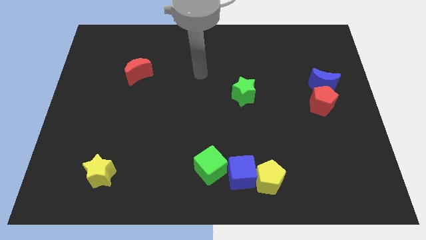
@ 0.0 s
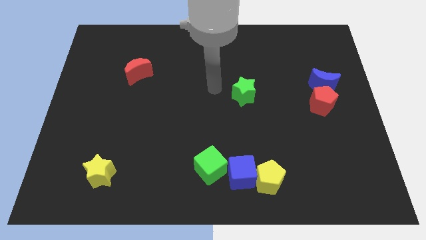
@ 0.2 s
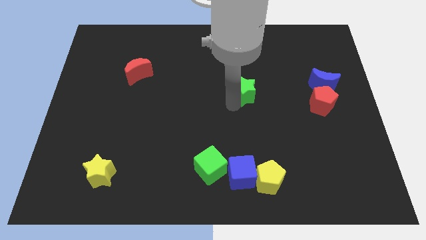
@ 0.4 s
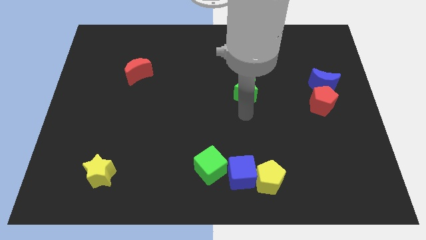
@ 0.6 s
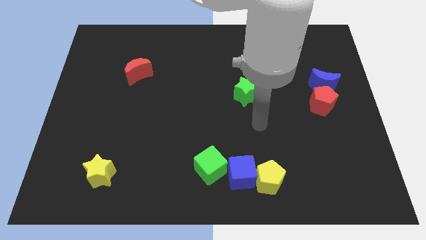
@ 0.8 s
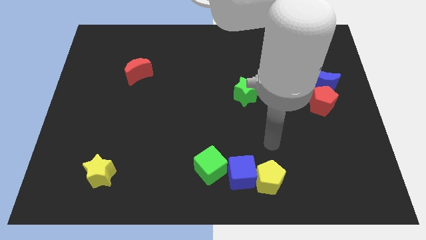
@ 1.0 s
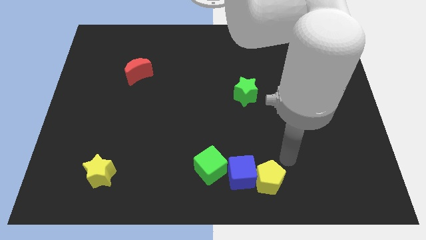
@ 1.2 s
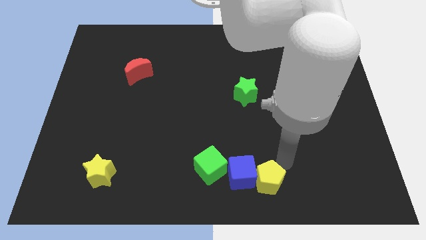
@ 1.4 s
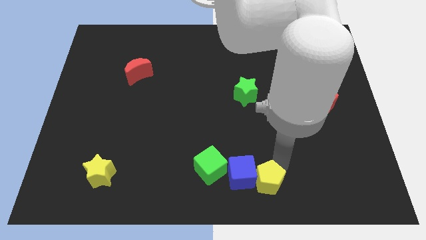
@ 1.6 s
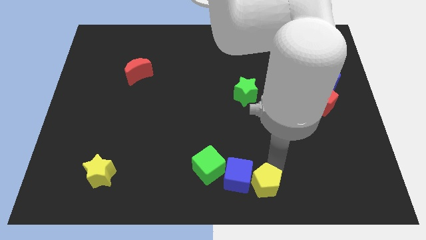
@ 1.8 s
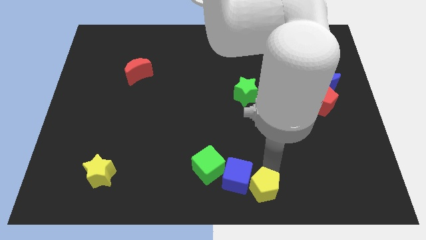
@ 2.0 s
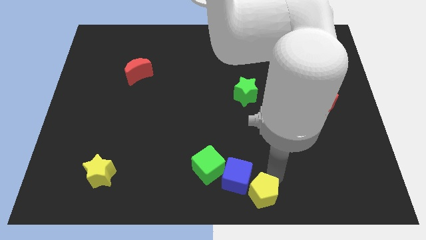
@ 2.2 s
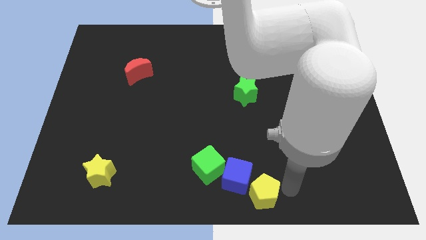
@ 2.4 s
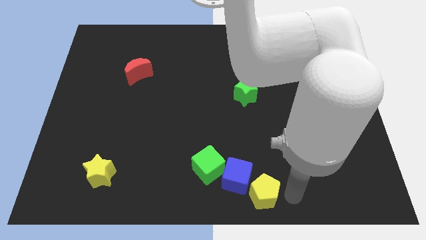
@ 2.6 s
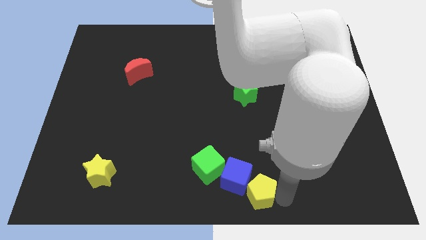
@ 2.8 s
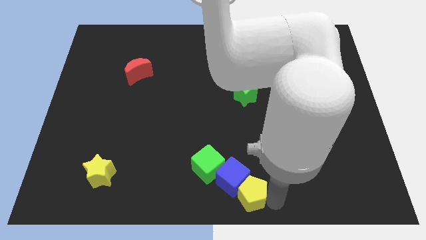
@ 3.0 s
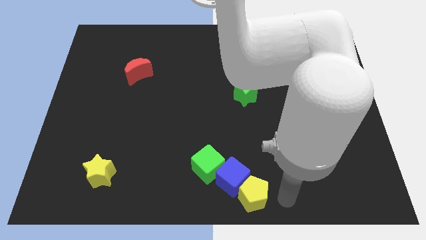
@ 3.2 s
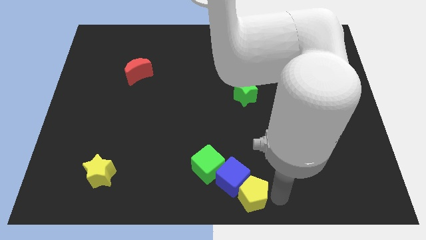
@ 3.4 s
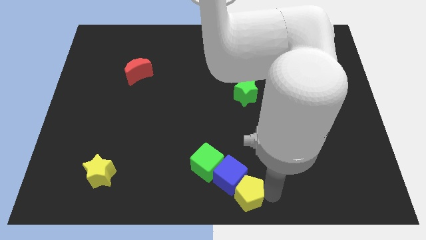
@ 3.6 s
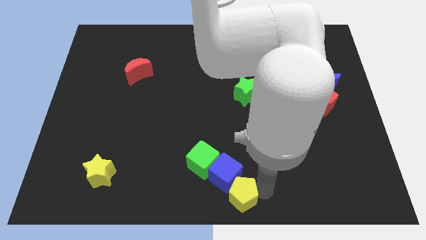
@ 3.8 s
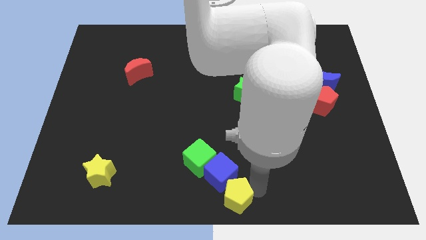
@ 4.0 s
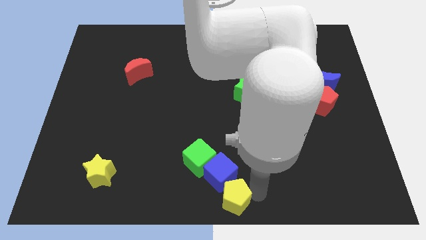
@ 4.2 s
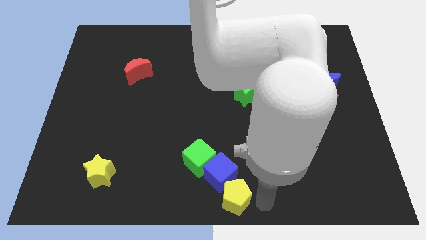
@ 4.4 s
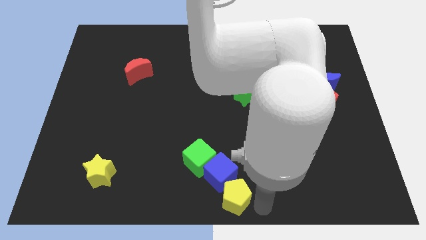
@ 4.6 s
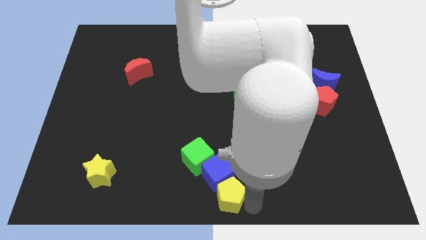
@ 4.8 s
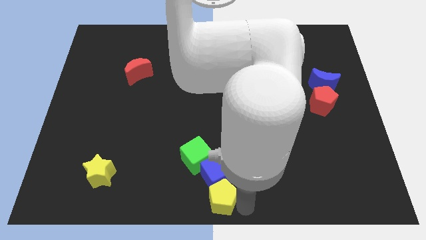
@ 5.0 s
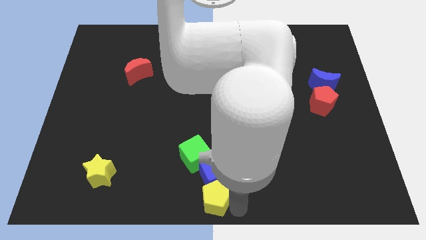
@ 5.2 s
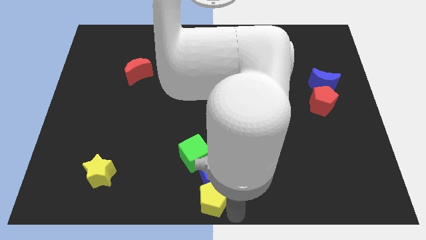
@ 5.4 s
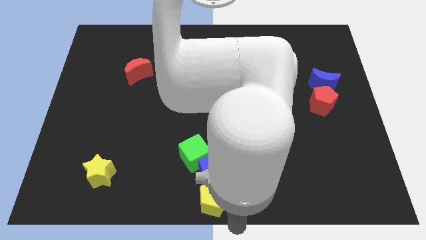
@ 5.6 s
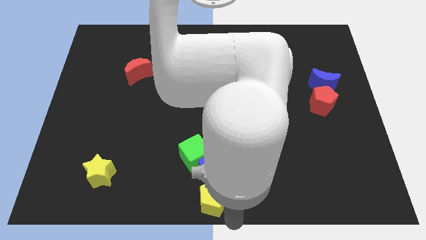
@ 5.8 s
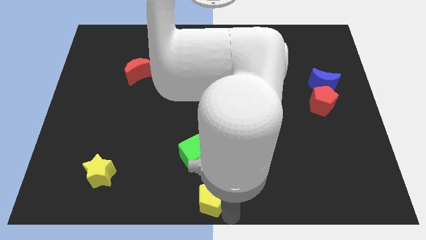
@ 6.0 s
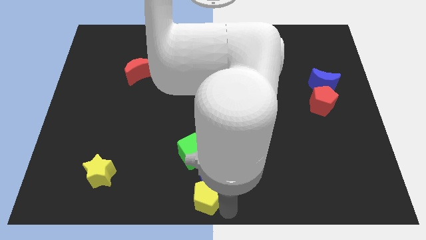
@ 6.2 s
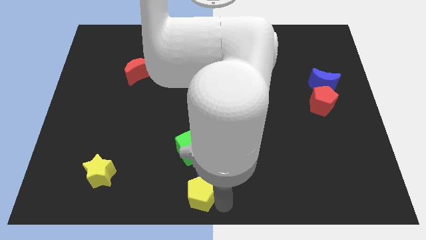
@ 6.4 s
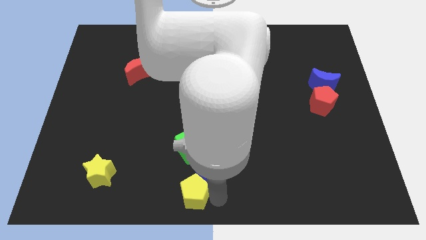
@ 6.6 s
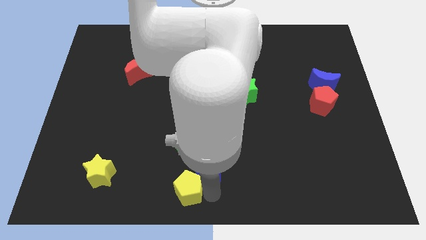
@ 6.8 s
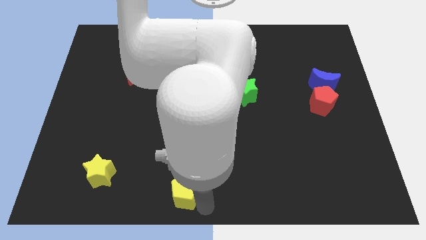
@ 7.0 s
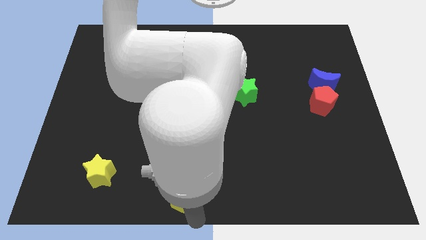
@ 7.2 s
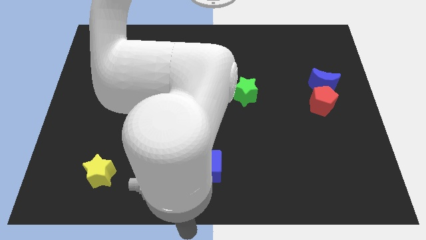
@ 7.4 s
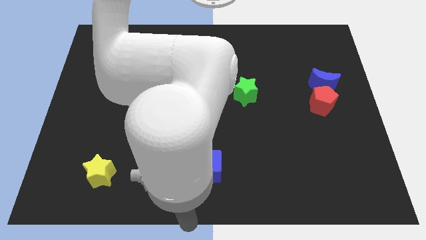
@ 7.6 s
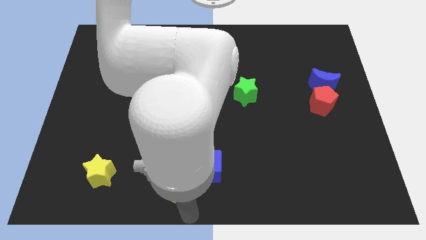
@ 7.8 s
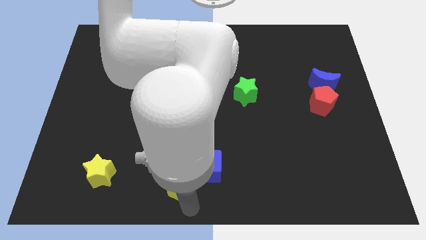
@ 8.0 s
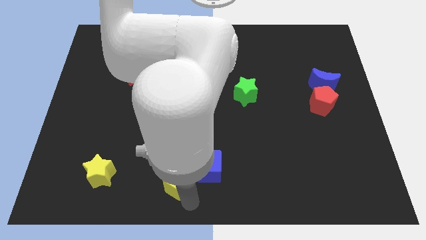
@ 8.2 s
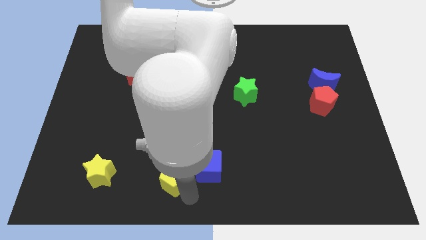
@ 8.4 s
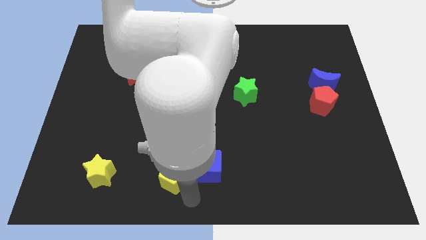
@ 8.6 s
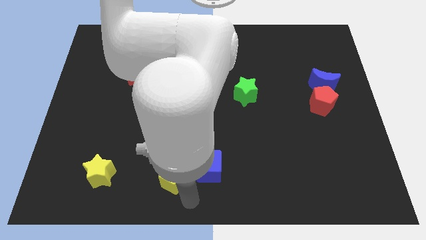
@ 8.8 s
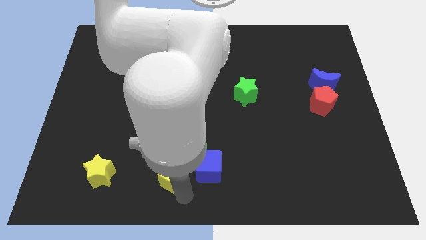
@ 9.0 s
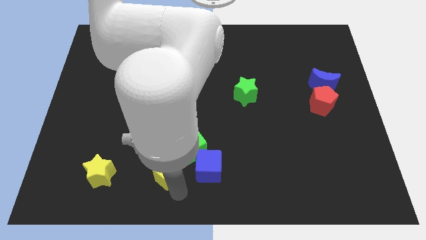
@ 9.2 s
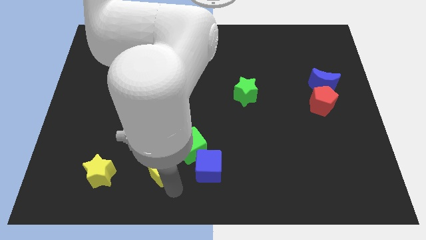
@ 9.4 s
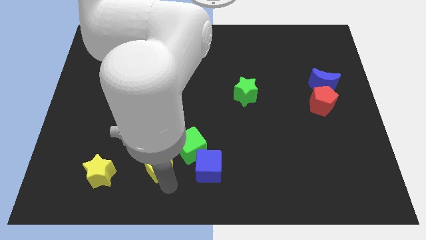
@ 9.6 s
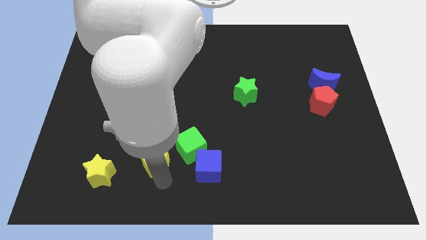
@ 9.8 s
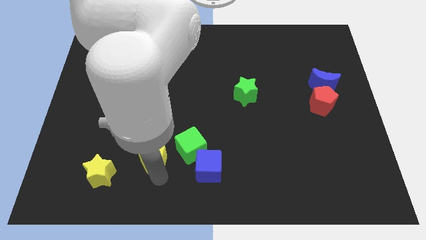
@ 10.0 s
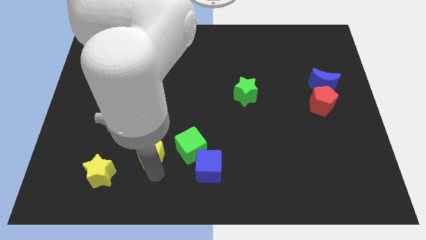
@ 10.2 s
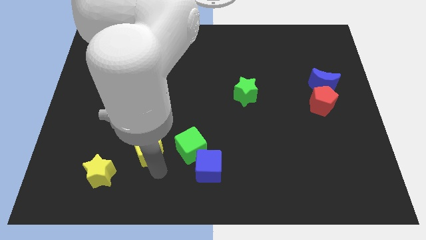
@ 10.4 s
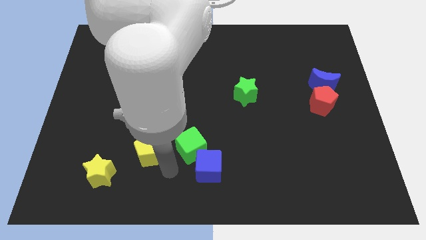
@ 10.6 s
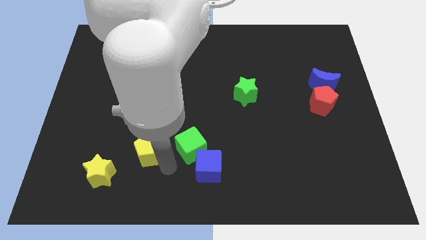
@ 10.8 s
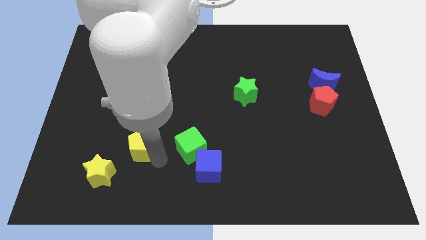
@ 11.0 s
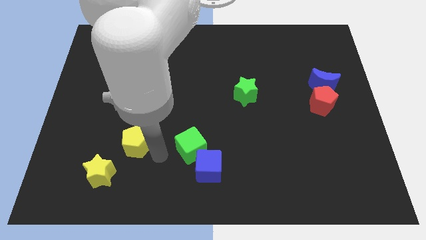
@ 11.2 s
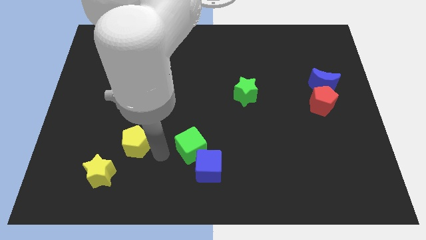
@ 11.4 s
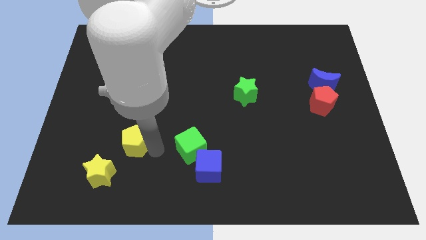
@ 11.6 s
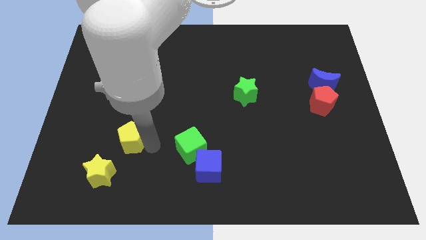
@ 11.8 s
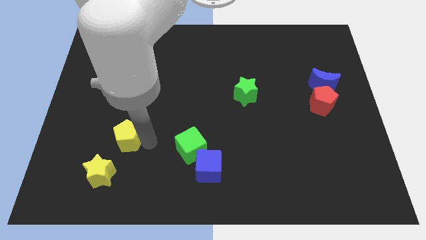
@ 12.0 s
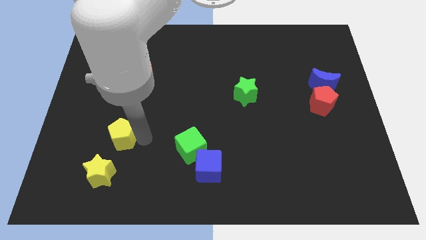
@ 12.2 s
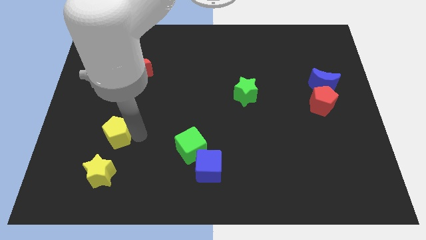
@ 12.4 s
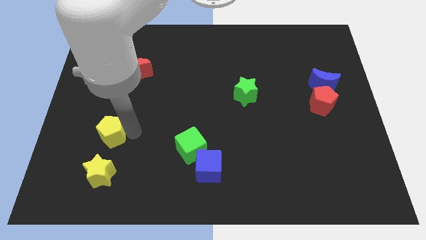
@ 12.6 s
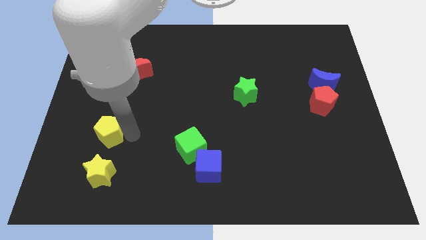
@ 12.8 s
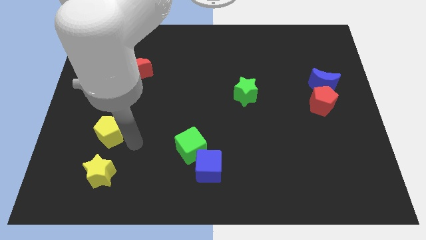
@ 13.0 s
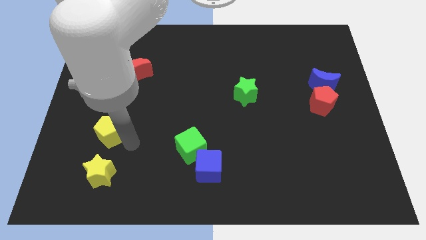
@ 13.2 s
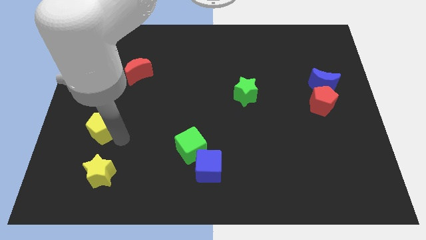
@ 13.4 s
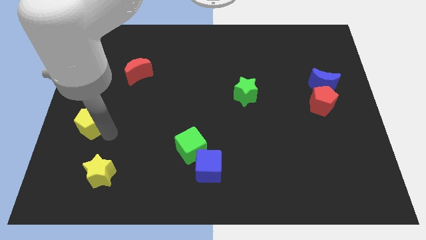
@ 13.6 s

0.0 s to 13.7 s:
slide the yellow pentagon to the left side of the board

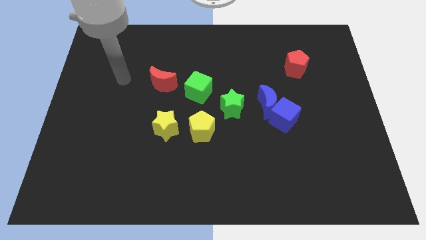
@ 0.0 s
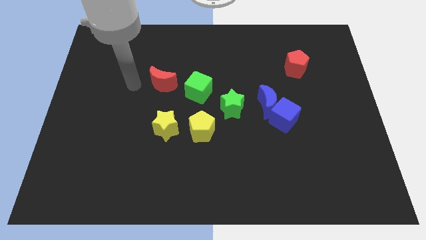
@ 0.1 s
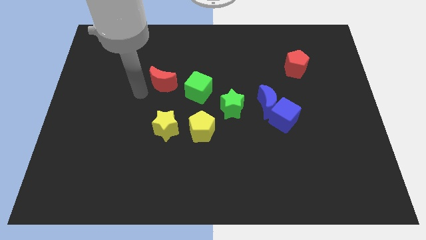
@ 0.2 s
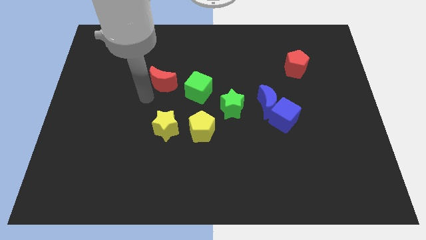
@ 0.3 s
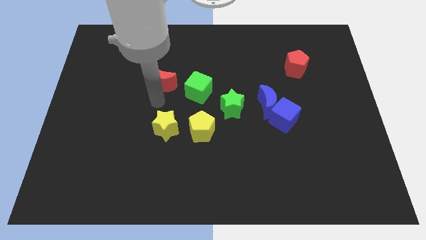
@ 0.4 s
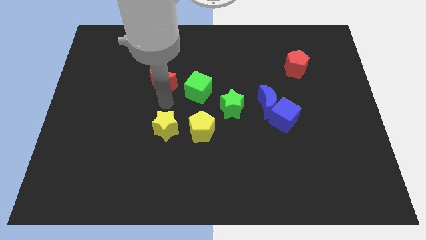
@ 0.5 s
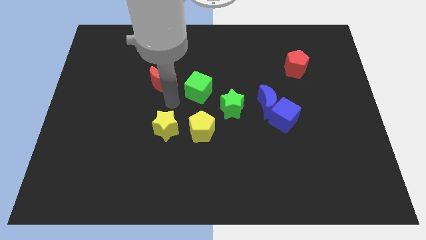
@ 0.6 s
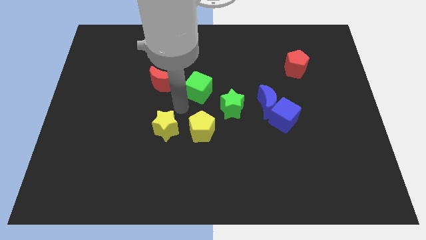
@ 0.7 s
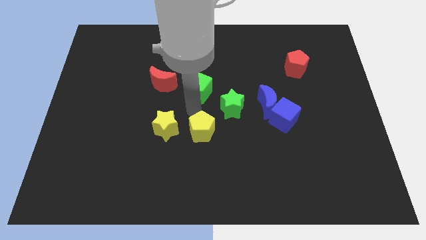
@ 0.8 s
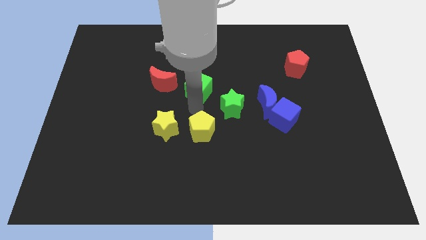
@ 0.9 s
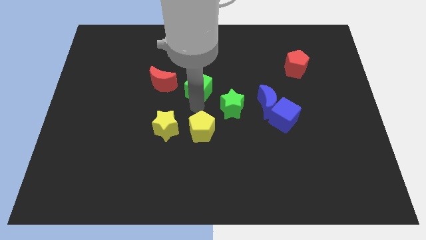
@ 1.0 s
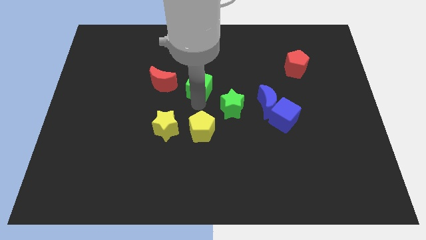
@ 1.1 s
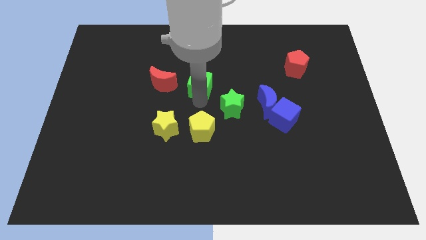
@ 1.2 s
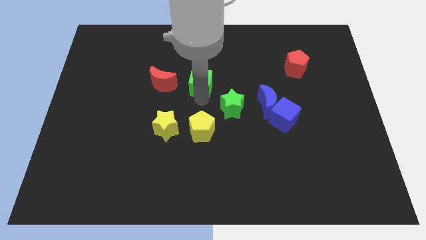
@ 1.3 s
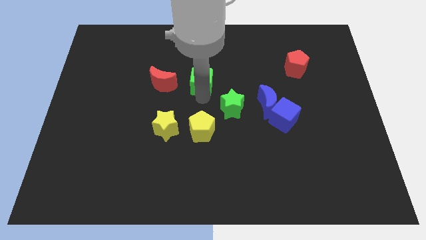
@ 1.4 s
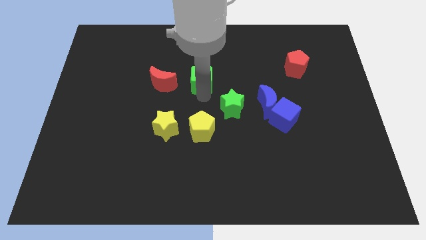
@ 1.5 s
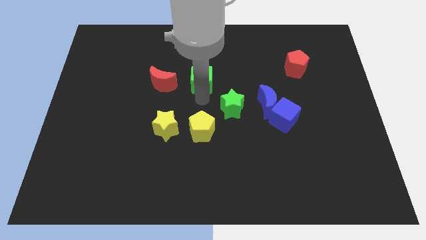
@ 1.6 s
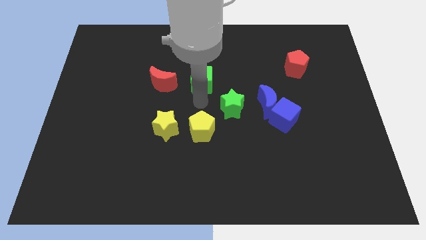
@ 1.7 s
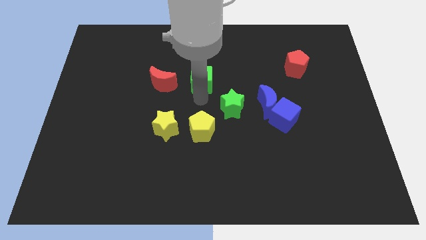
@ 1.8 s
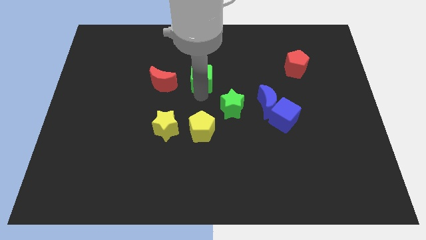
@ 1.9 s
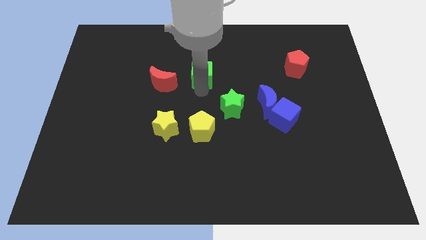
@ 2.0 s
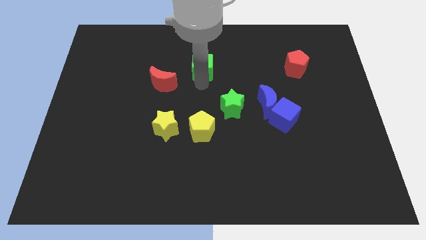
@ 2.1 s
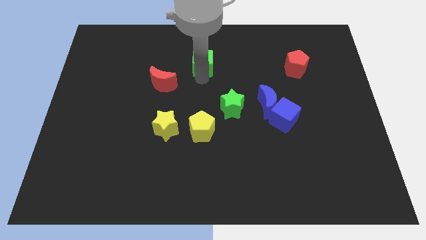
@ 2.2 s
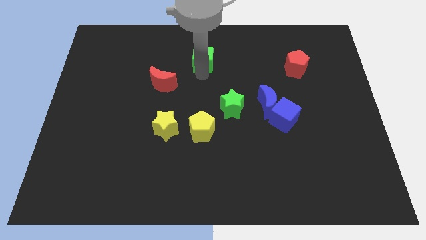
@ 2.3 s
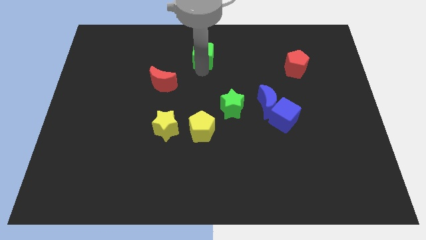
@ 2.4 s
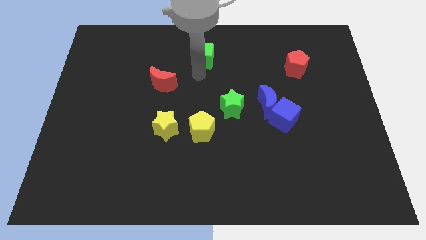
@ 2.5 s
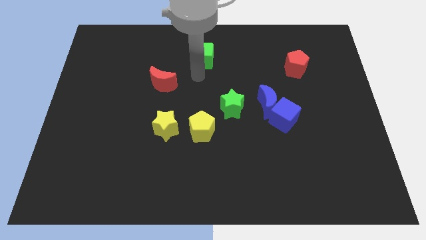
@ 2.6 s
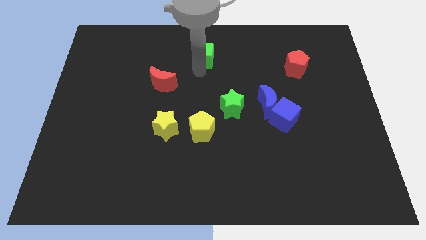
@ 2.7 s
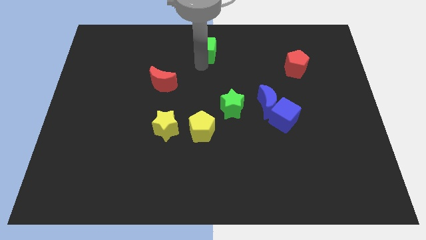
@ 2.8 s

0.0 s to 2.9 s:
push the green cube to the towards your base
